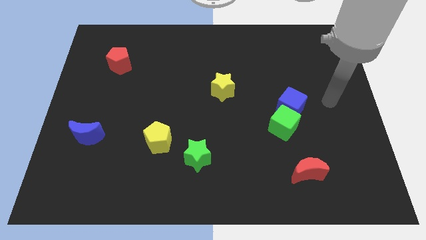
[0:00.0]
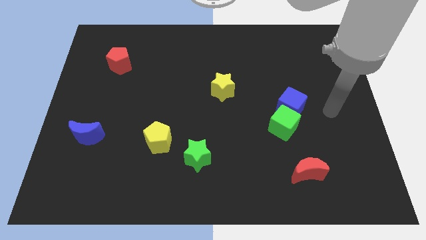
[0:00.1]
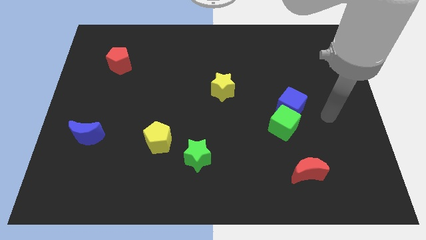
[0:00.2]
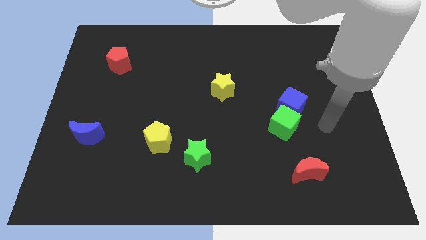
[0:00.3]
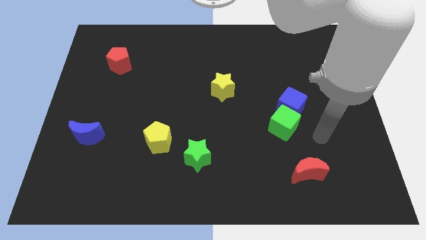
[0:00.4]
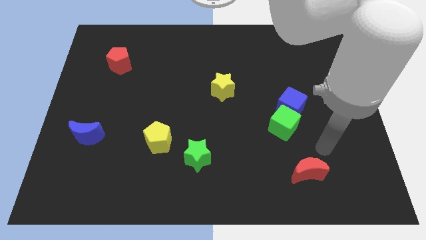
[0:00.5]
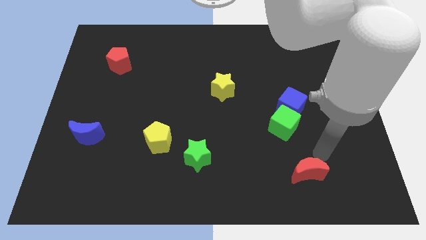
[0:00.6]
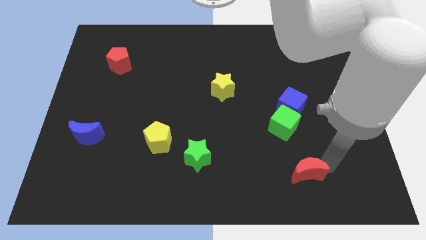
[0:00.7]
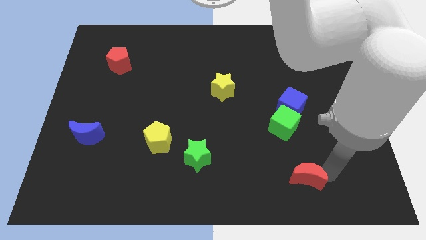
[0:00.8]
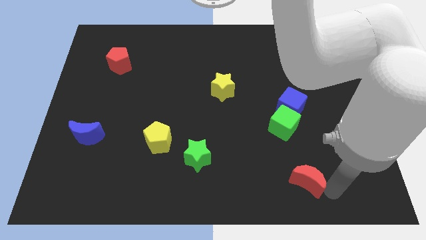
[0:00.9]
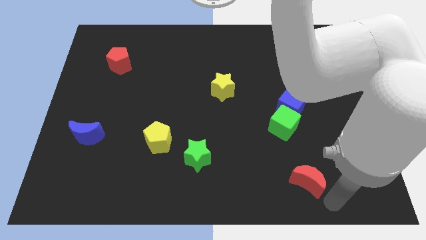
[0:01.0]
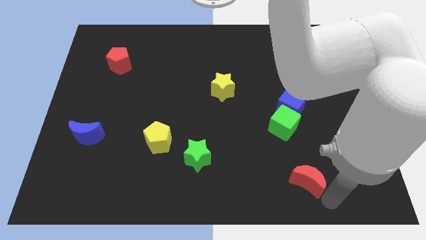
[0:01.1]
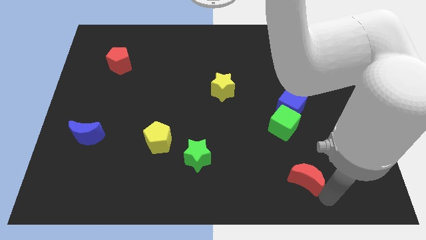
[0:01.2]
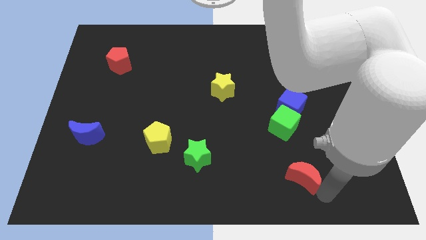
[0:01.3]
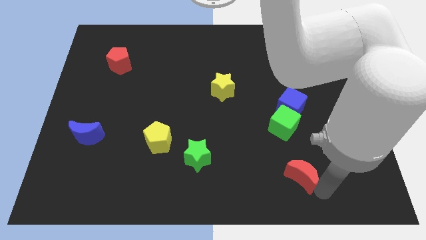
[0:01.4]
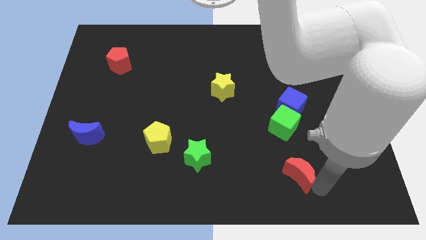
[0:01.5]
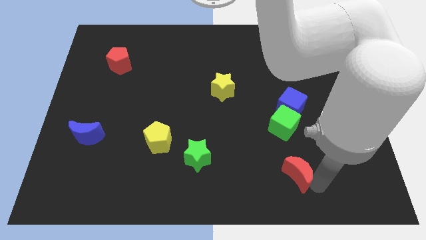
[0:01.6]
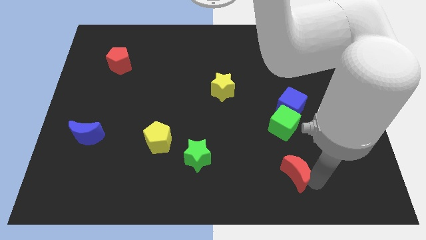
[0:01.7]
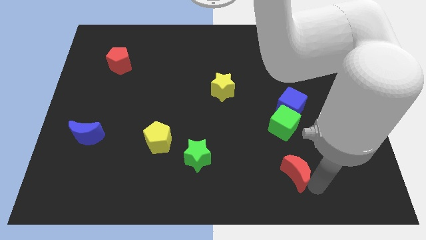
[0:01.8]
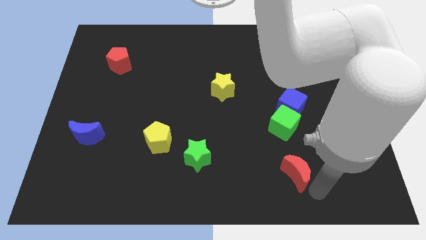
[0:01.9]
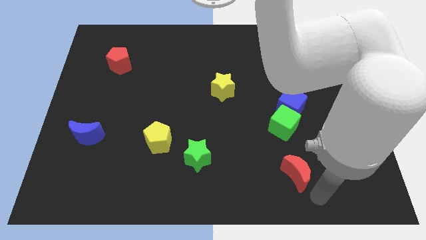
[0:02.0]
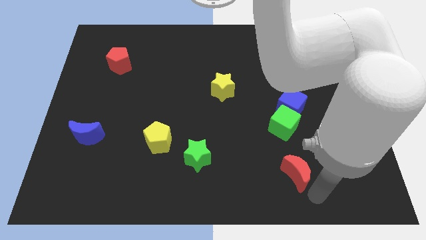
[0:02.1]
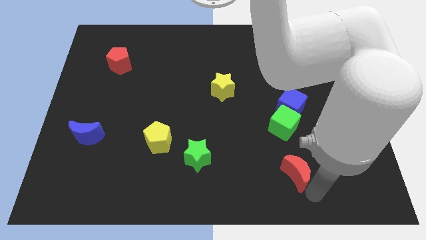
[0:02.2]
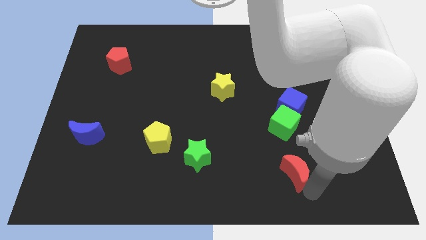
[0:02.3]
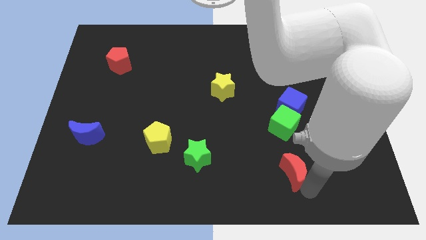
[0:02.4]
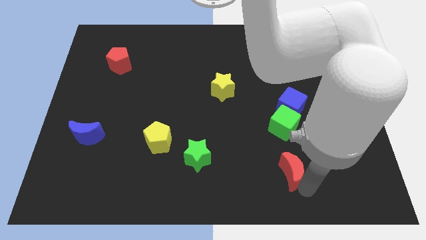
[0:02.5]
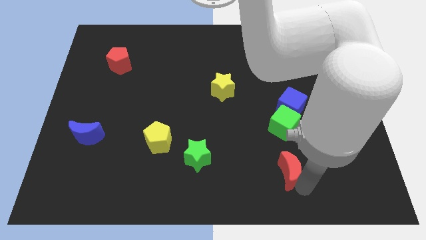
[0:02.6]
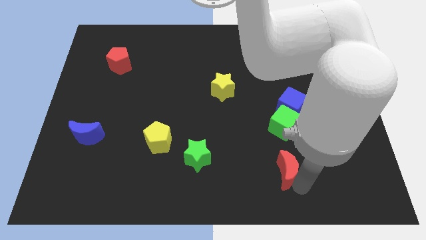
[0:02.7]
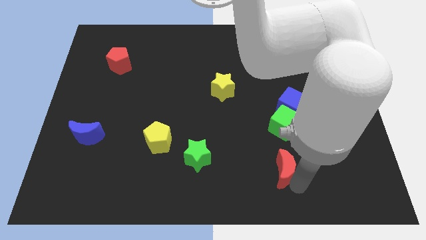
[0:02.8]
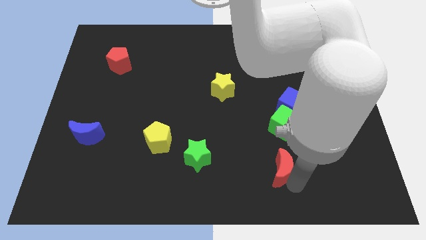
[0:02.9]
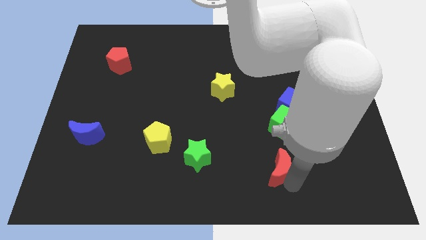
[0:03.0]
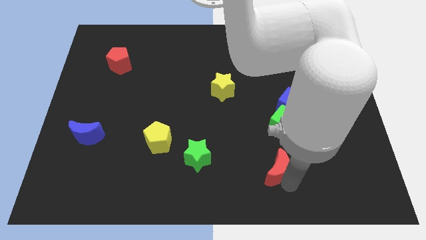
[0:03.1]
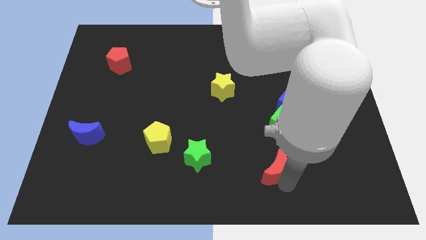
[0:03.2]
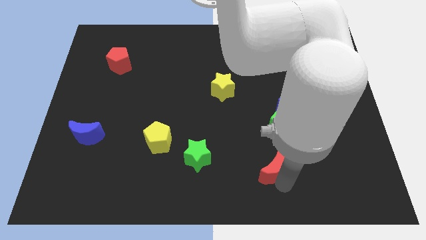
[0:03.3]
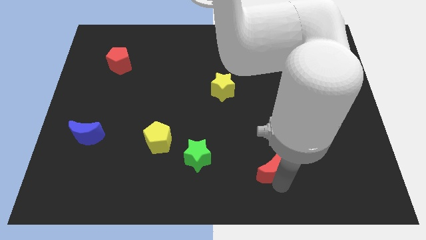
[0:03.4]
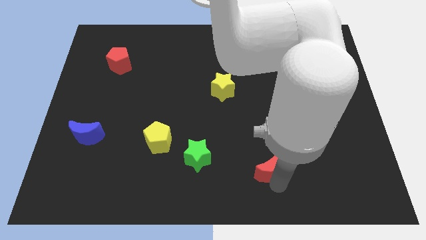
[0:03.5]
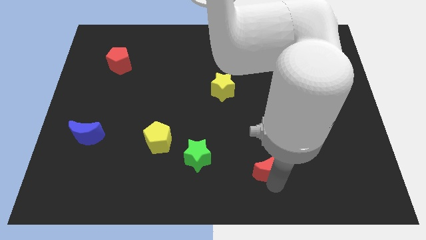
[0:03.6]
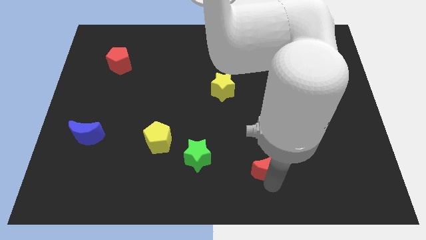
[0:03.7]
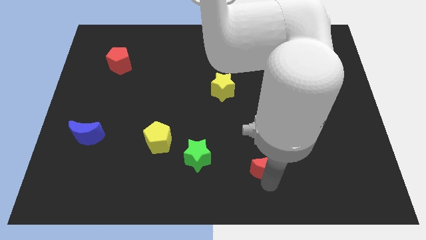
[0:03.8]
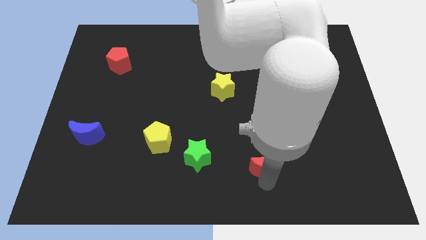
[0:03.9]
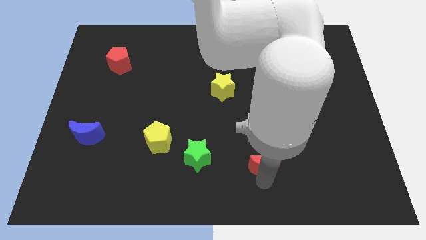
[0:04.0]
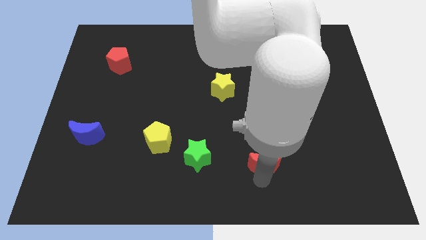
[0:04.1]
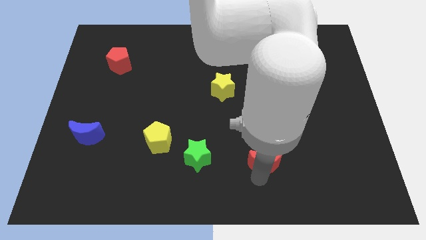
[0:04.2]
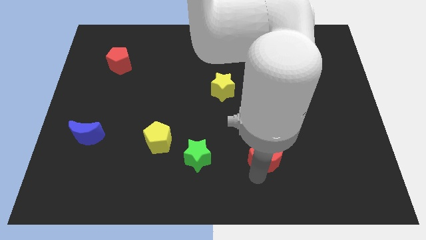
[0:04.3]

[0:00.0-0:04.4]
slightly slide the red moon upwards and to the left diagonally

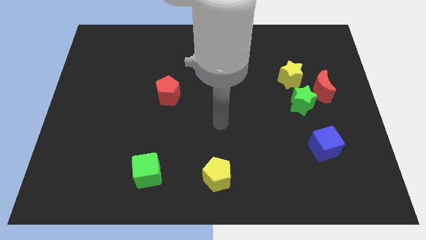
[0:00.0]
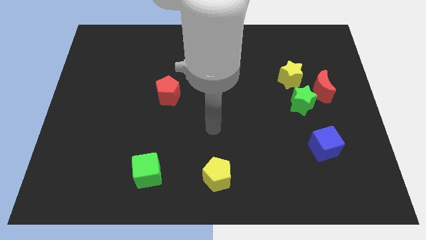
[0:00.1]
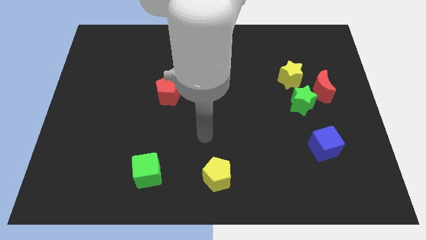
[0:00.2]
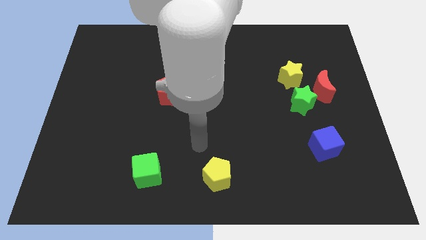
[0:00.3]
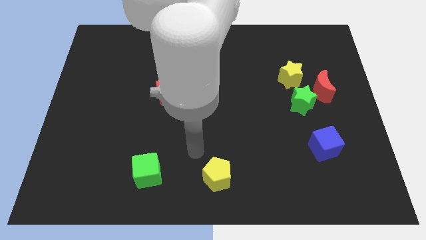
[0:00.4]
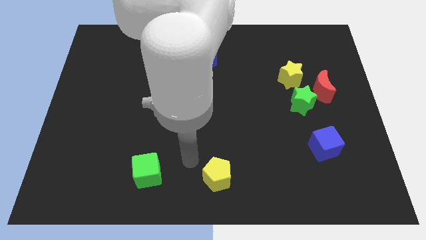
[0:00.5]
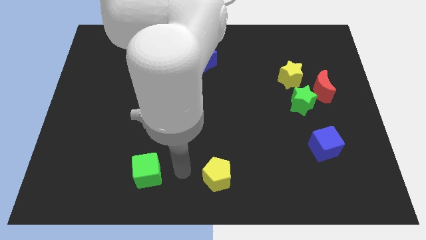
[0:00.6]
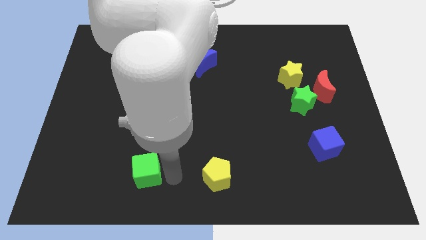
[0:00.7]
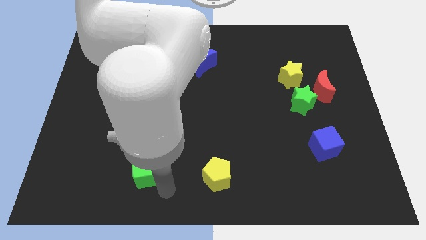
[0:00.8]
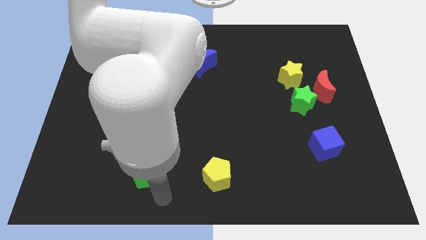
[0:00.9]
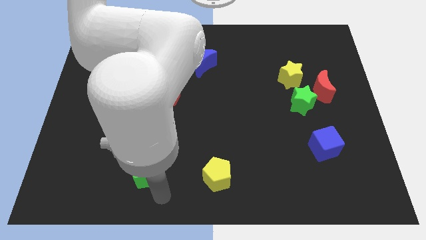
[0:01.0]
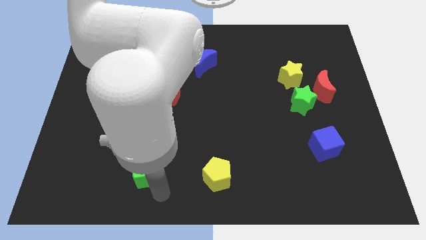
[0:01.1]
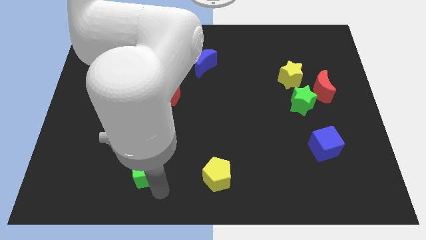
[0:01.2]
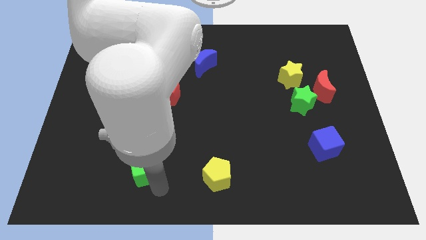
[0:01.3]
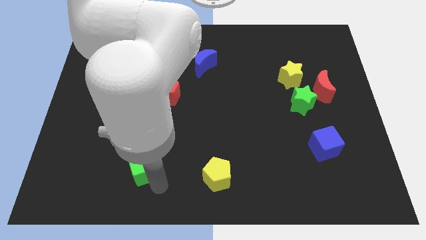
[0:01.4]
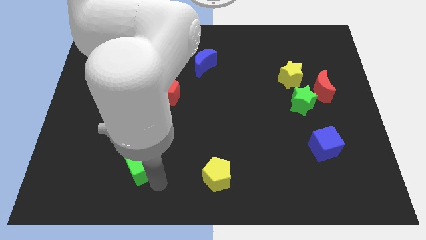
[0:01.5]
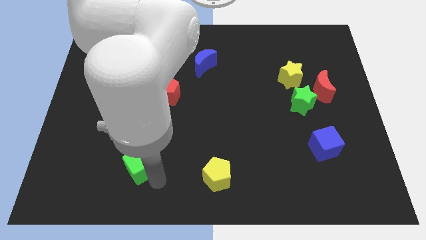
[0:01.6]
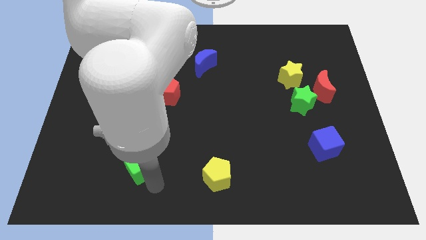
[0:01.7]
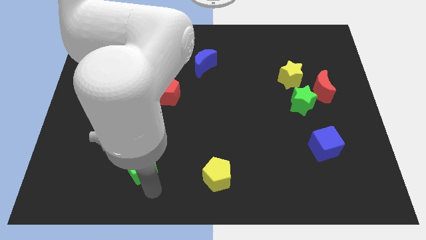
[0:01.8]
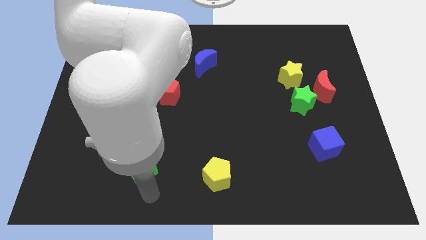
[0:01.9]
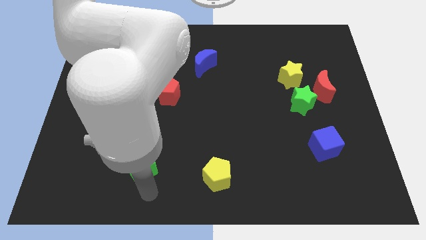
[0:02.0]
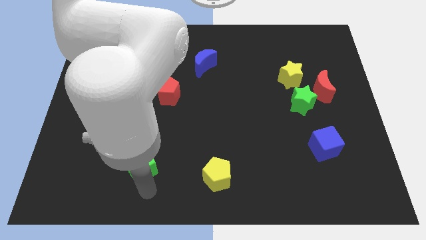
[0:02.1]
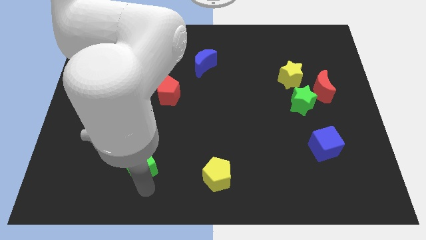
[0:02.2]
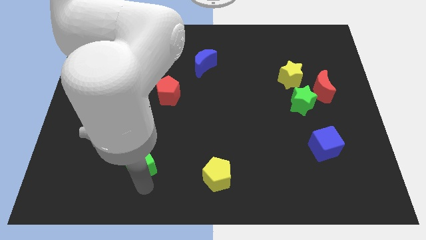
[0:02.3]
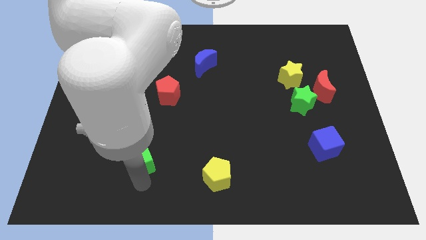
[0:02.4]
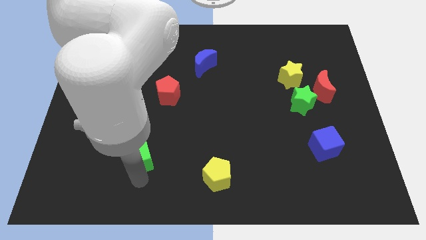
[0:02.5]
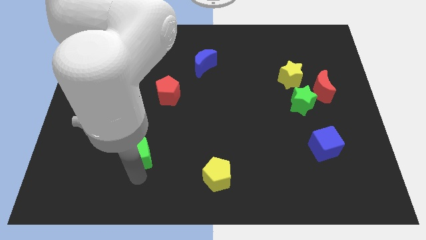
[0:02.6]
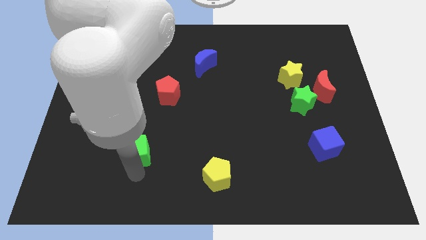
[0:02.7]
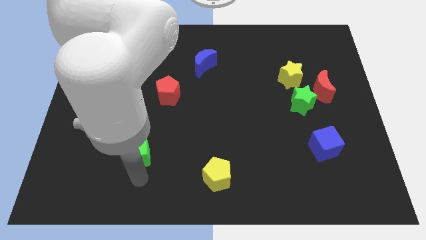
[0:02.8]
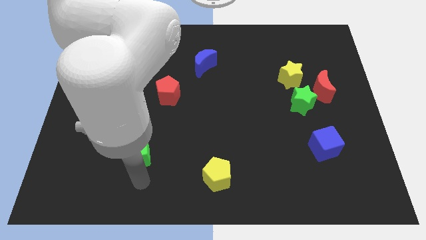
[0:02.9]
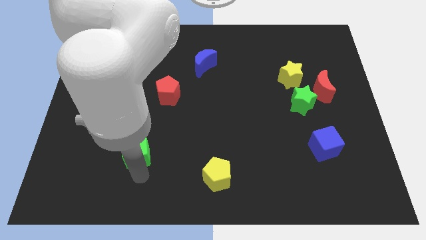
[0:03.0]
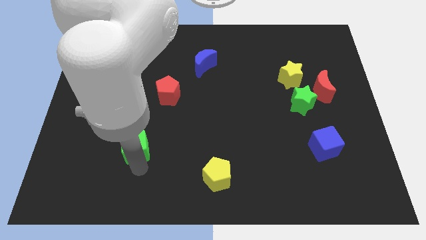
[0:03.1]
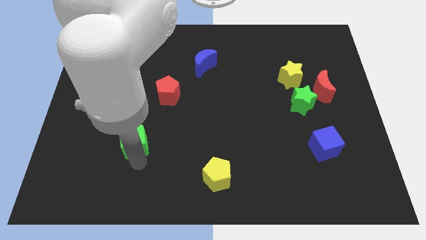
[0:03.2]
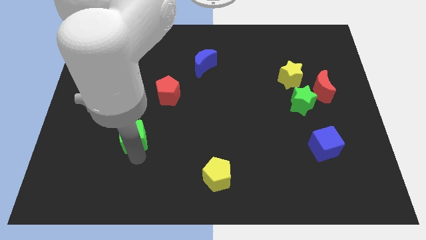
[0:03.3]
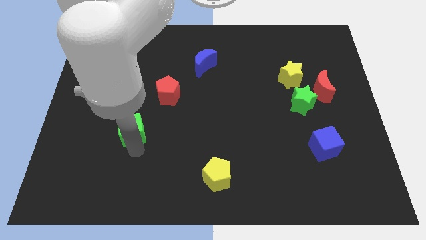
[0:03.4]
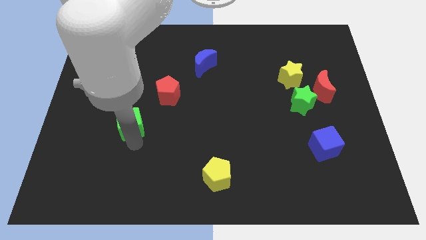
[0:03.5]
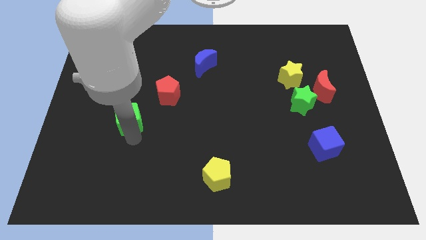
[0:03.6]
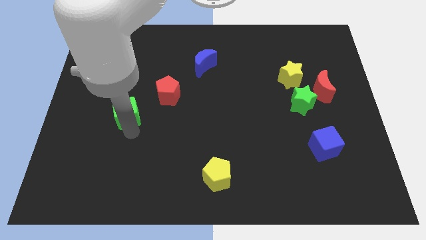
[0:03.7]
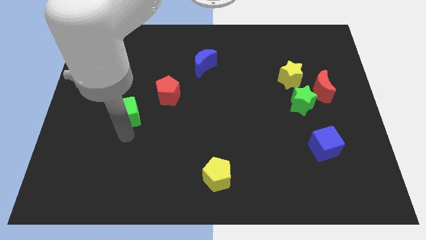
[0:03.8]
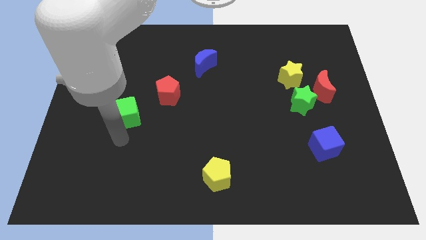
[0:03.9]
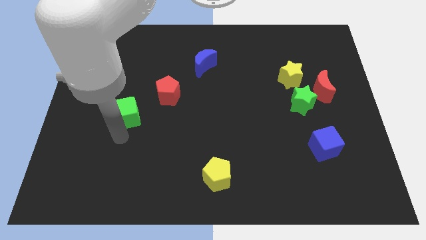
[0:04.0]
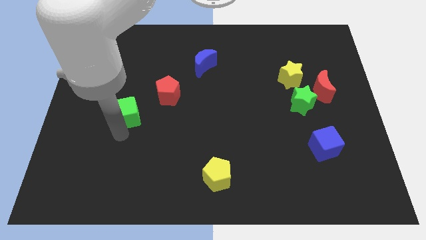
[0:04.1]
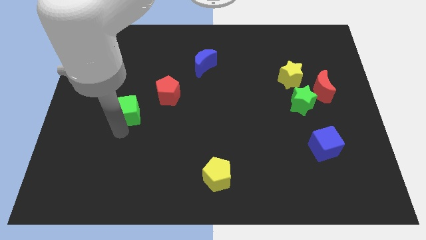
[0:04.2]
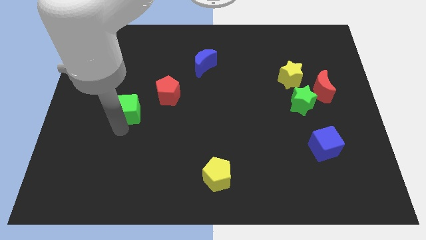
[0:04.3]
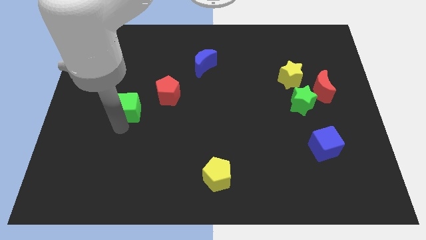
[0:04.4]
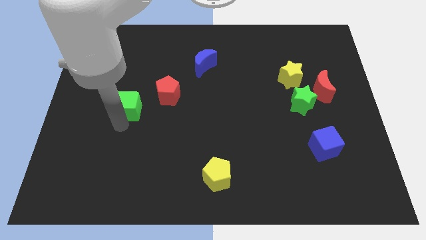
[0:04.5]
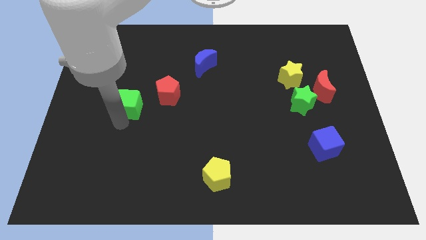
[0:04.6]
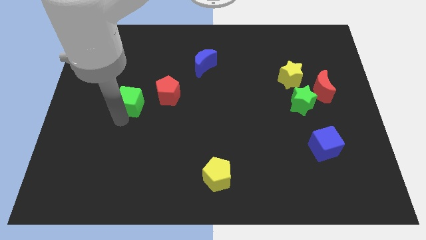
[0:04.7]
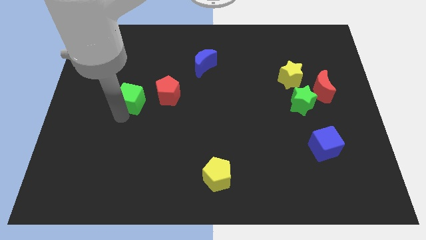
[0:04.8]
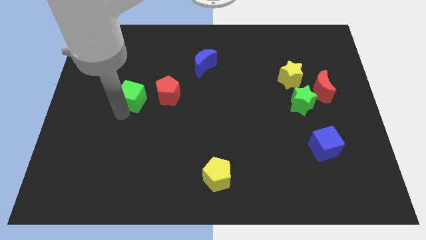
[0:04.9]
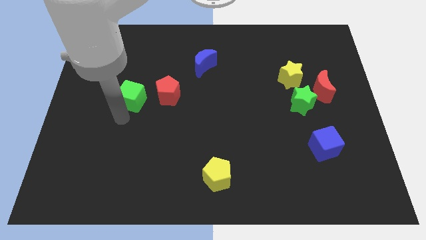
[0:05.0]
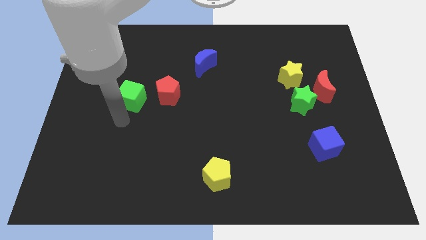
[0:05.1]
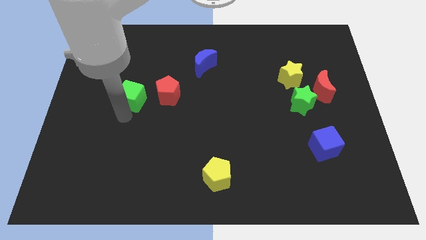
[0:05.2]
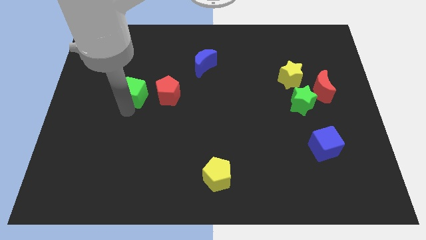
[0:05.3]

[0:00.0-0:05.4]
slide the green cube upwards
